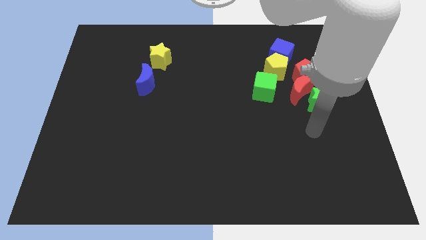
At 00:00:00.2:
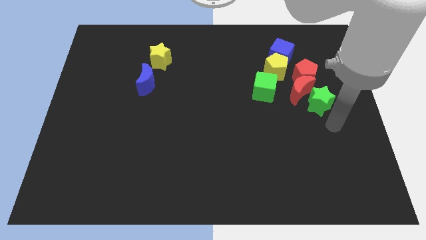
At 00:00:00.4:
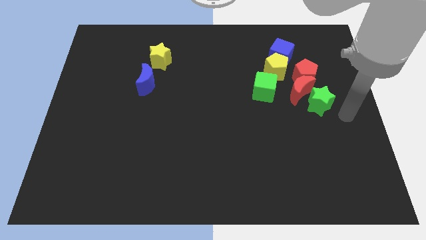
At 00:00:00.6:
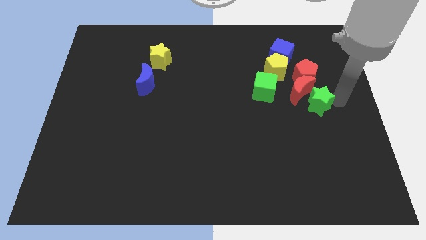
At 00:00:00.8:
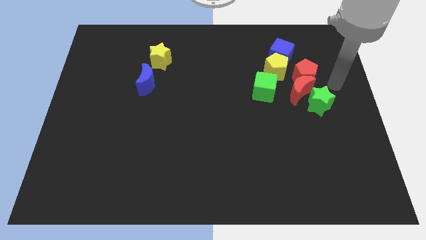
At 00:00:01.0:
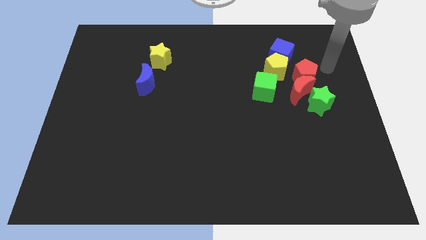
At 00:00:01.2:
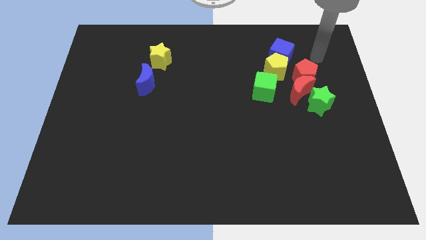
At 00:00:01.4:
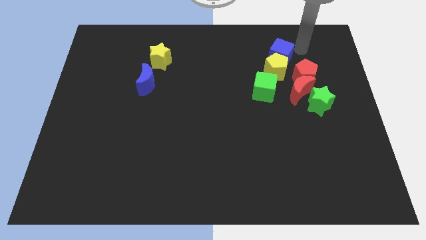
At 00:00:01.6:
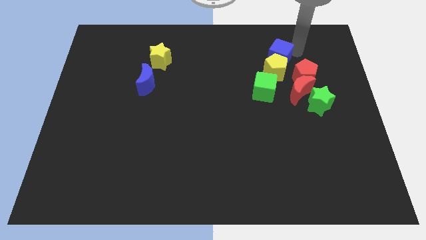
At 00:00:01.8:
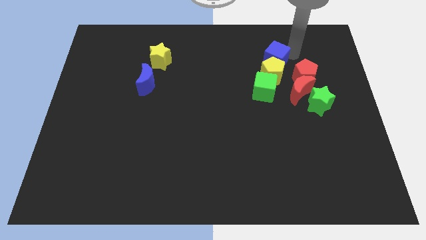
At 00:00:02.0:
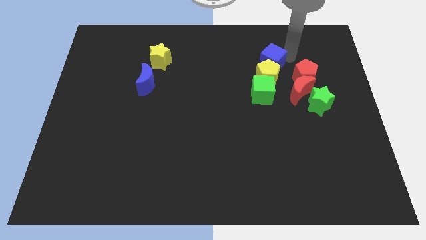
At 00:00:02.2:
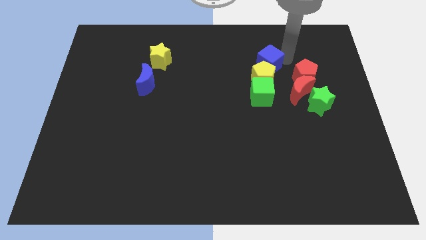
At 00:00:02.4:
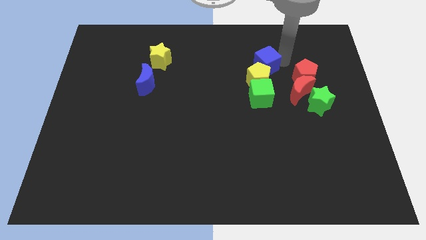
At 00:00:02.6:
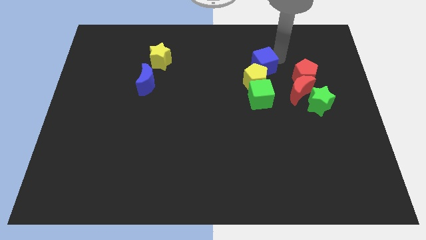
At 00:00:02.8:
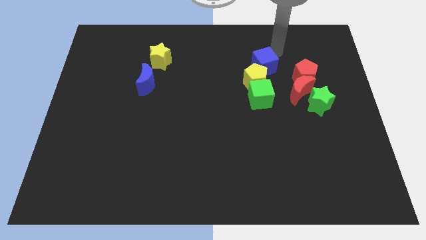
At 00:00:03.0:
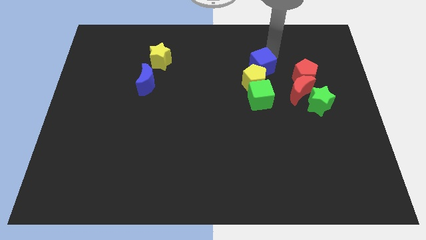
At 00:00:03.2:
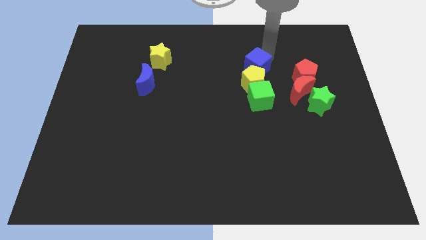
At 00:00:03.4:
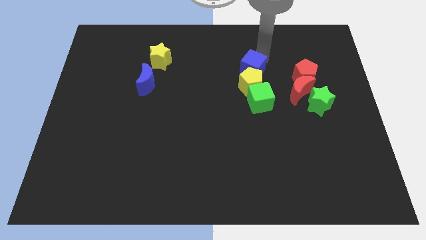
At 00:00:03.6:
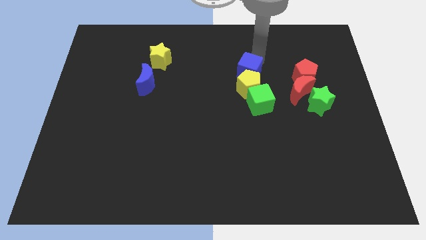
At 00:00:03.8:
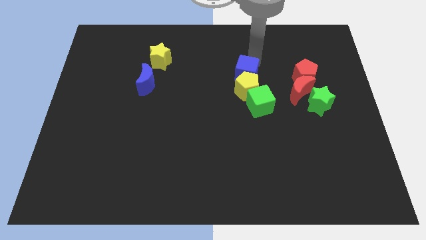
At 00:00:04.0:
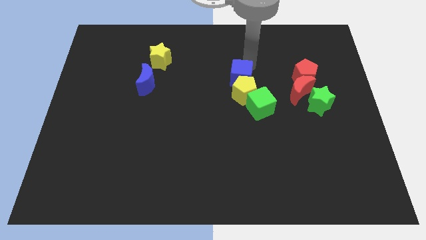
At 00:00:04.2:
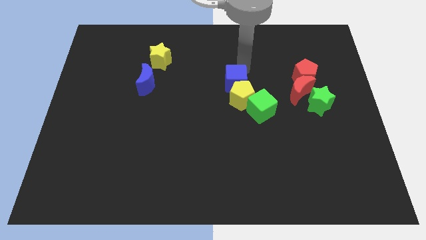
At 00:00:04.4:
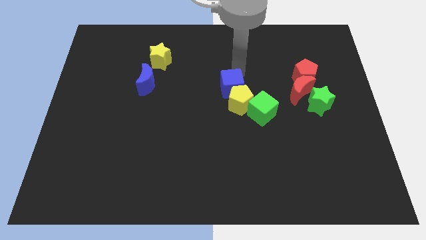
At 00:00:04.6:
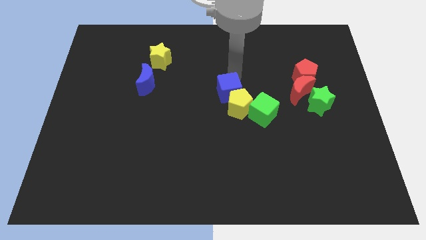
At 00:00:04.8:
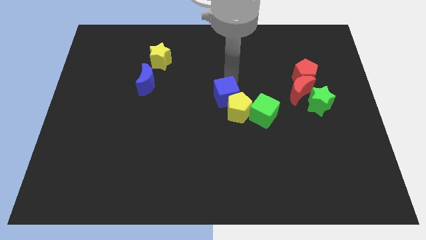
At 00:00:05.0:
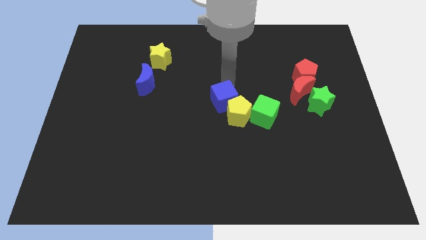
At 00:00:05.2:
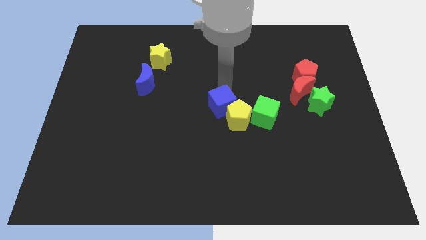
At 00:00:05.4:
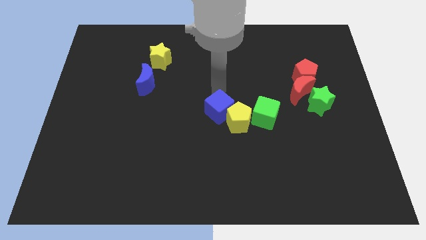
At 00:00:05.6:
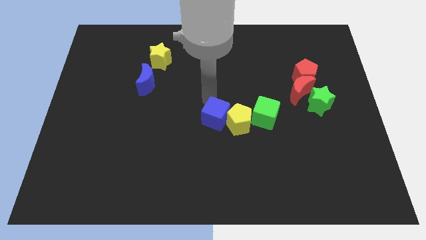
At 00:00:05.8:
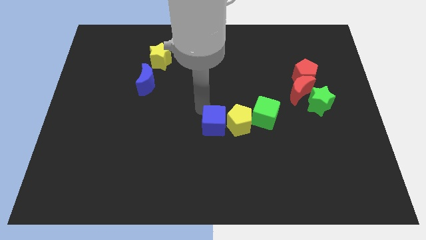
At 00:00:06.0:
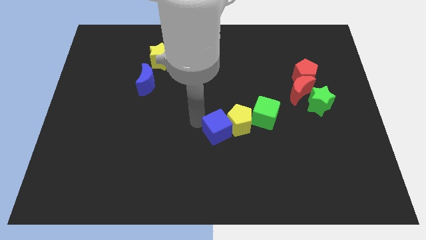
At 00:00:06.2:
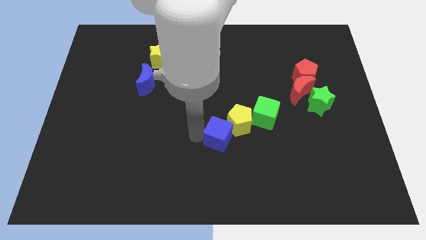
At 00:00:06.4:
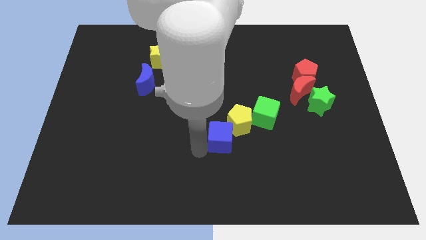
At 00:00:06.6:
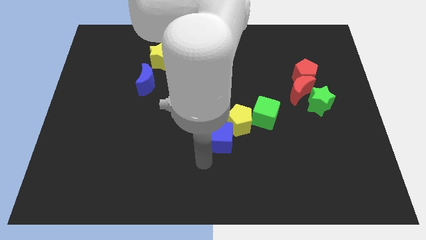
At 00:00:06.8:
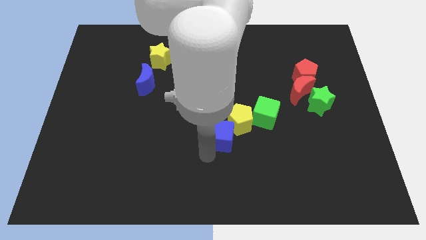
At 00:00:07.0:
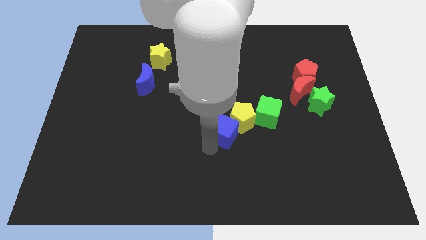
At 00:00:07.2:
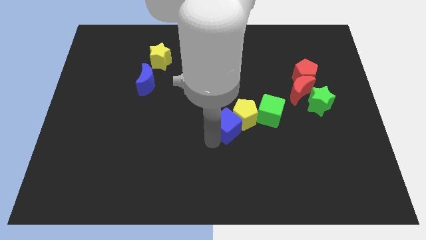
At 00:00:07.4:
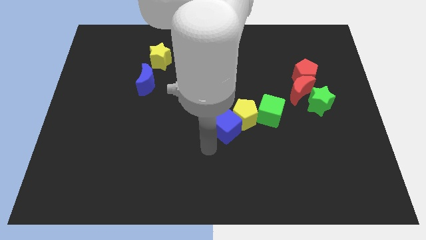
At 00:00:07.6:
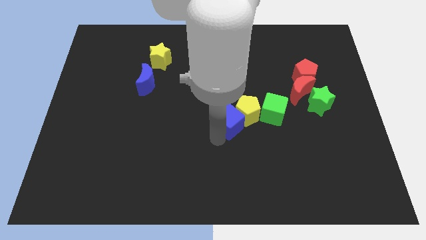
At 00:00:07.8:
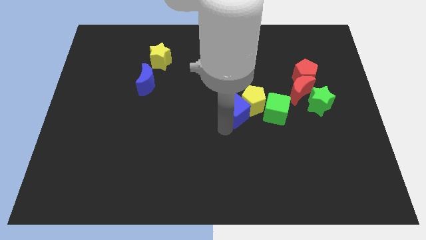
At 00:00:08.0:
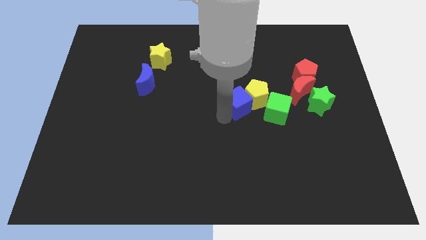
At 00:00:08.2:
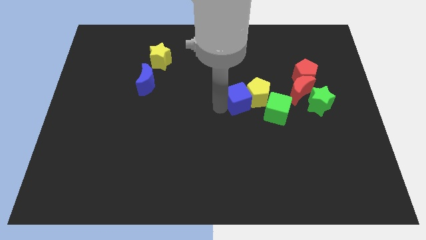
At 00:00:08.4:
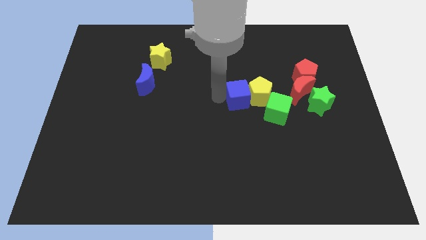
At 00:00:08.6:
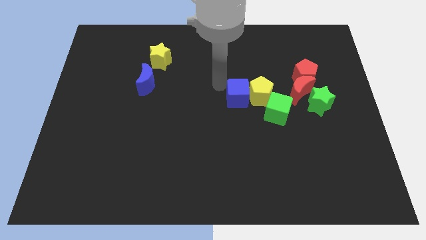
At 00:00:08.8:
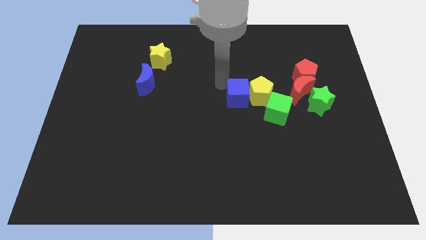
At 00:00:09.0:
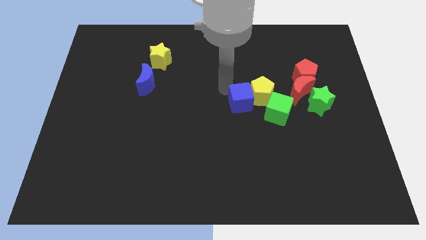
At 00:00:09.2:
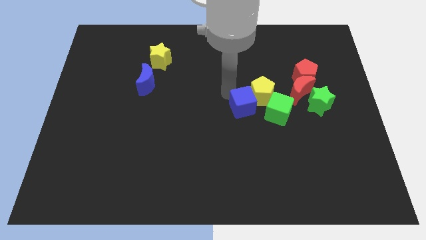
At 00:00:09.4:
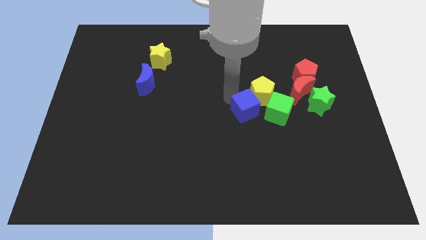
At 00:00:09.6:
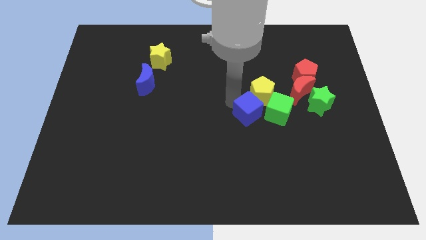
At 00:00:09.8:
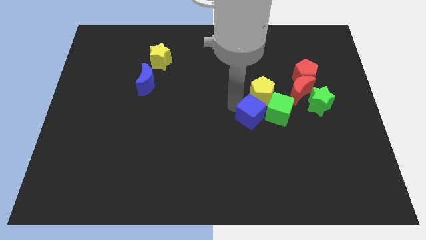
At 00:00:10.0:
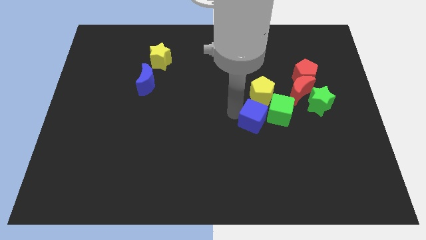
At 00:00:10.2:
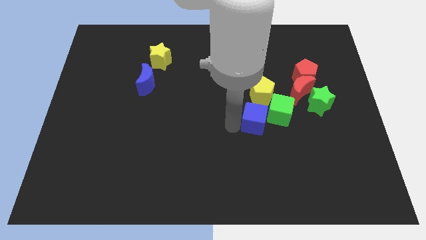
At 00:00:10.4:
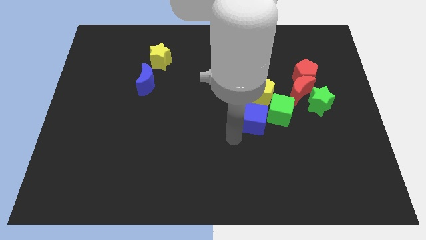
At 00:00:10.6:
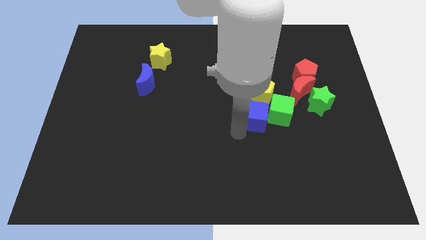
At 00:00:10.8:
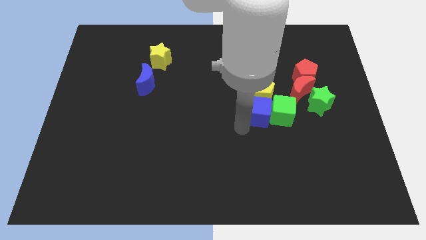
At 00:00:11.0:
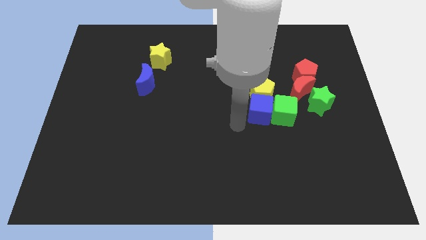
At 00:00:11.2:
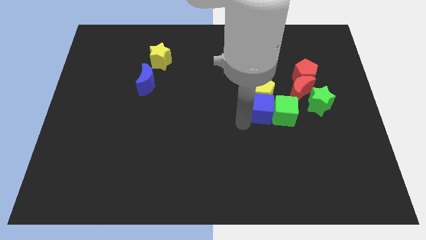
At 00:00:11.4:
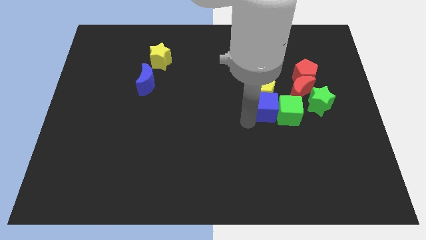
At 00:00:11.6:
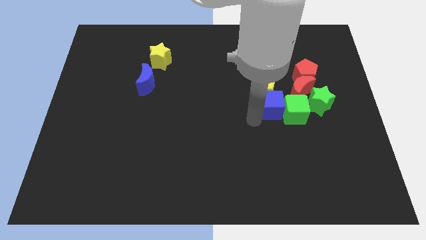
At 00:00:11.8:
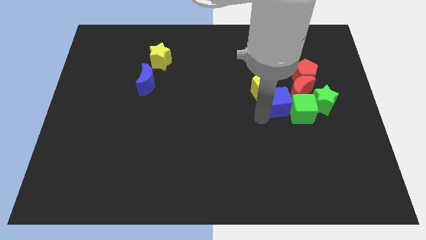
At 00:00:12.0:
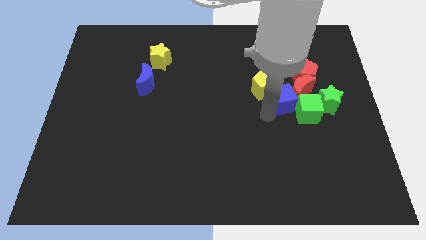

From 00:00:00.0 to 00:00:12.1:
slide the blue cube close to the red moon
